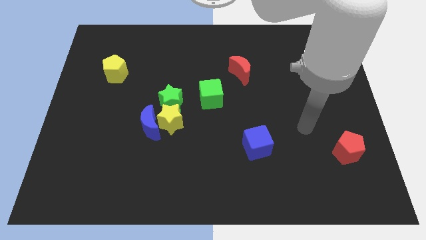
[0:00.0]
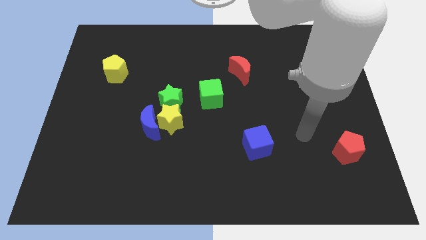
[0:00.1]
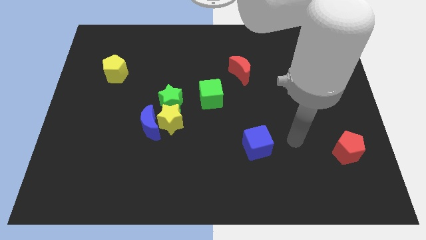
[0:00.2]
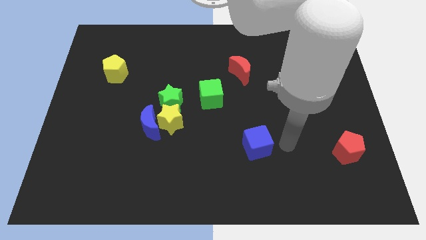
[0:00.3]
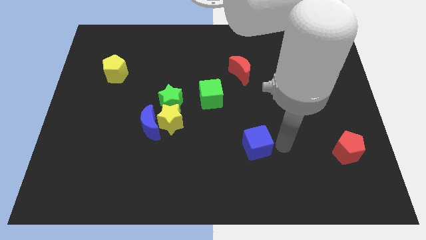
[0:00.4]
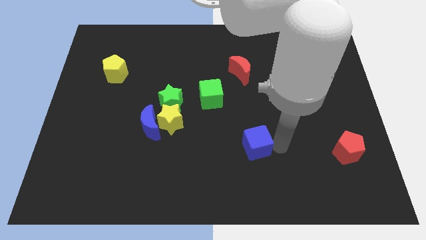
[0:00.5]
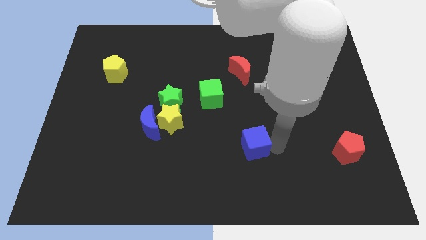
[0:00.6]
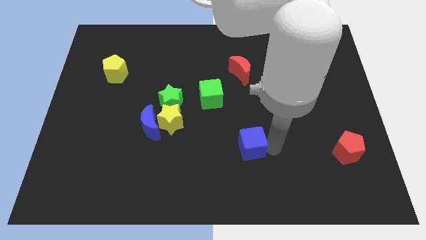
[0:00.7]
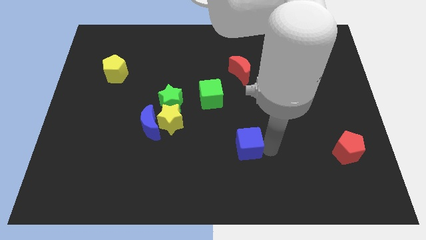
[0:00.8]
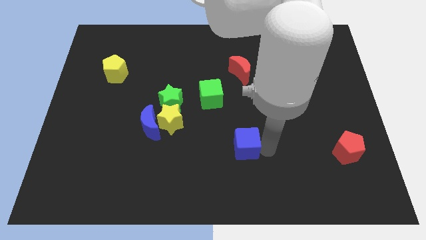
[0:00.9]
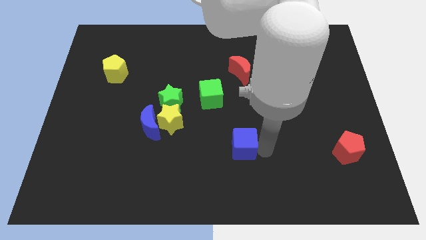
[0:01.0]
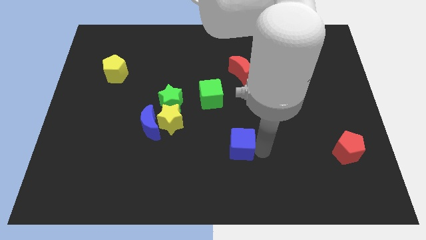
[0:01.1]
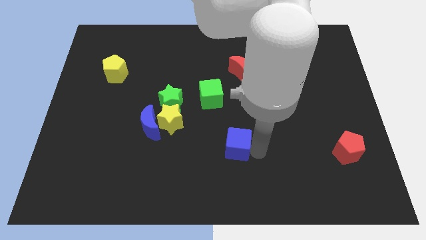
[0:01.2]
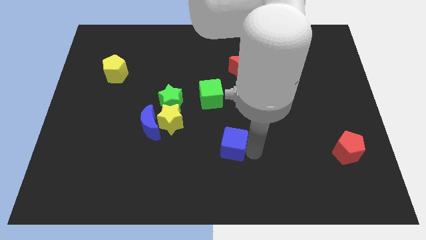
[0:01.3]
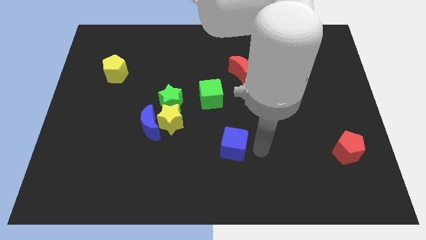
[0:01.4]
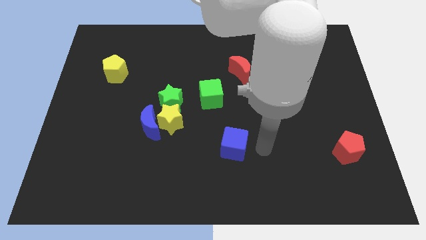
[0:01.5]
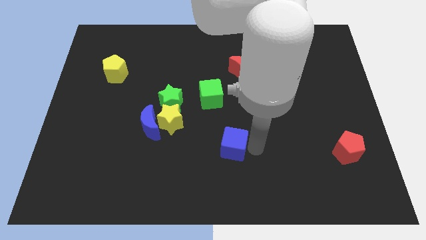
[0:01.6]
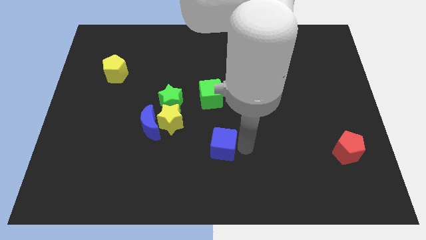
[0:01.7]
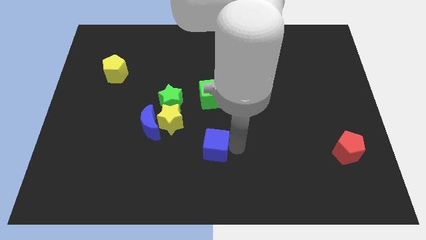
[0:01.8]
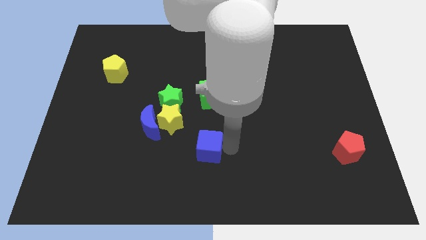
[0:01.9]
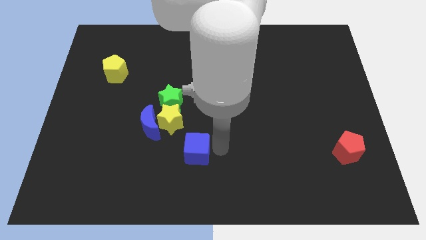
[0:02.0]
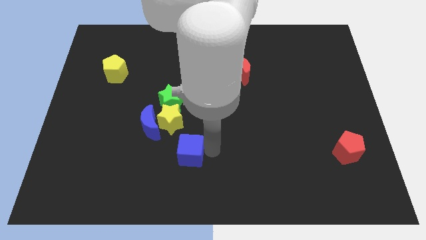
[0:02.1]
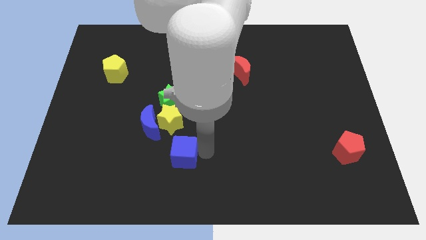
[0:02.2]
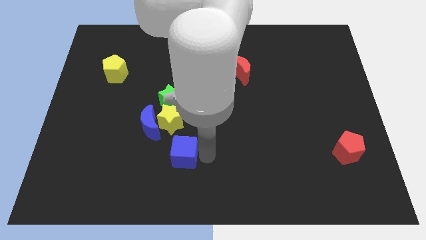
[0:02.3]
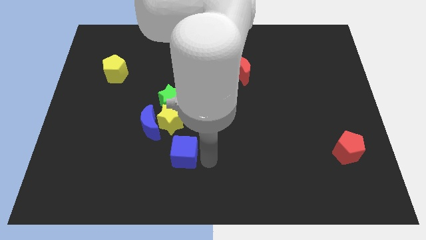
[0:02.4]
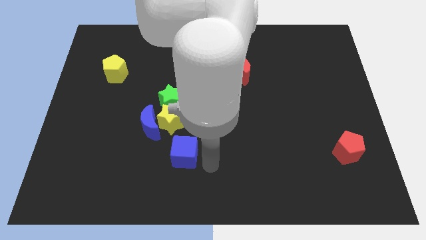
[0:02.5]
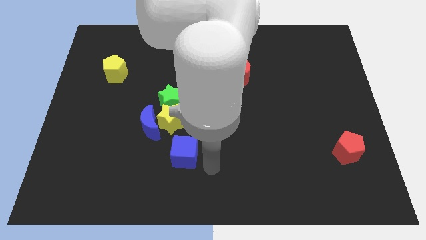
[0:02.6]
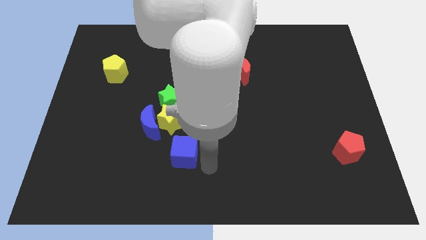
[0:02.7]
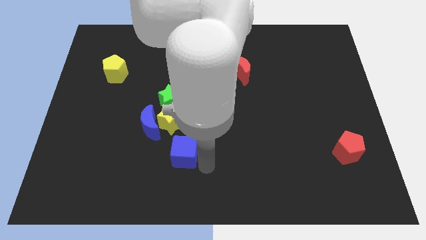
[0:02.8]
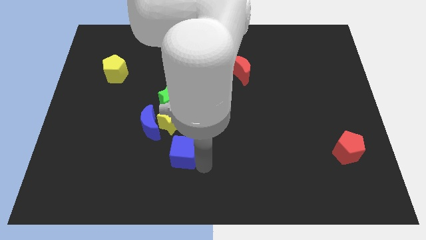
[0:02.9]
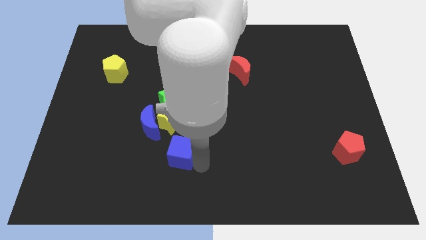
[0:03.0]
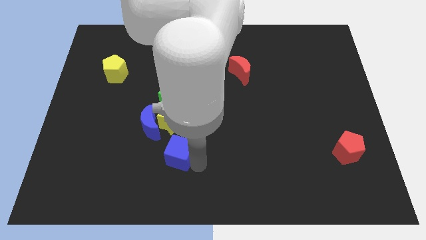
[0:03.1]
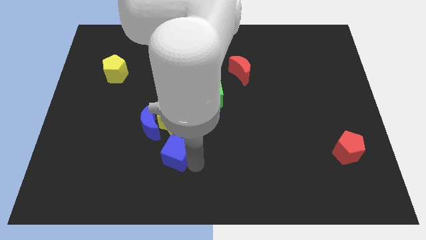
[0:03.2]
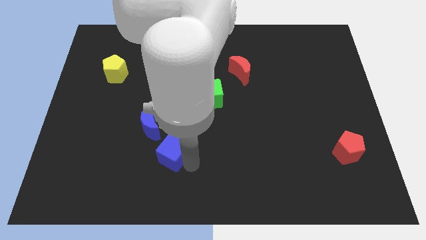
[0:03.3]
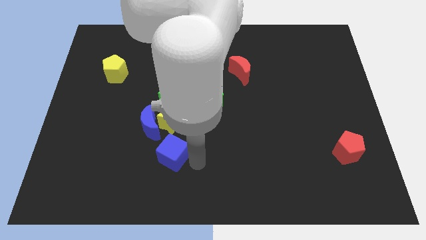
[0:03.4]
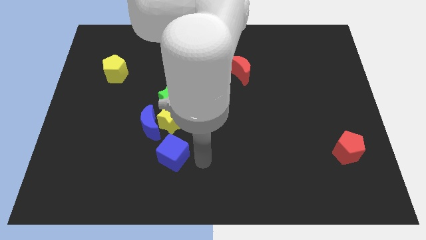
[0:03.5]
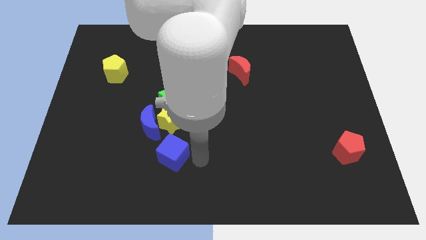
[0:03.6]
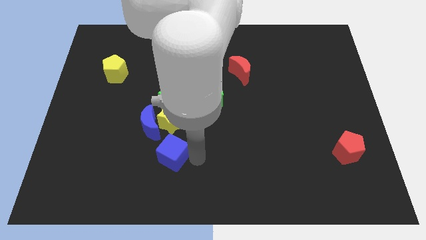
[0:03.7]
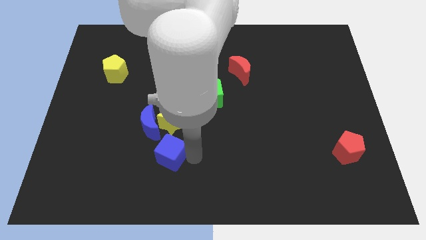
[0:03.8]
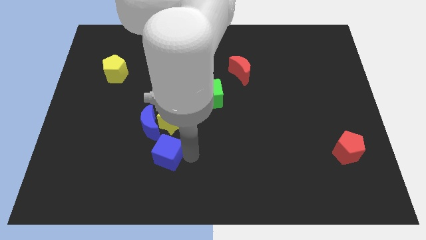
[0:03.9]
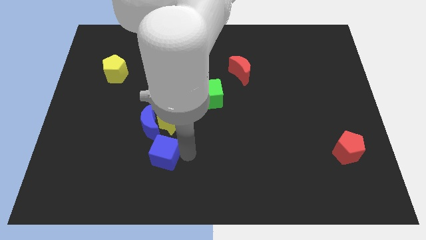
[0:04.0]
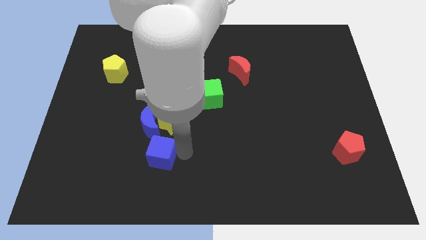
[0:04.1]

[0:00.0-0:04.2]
slide the blue cube to the left

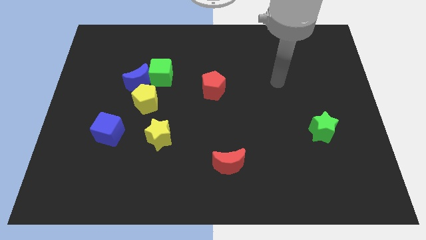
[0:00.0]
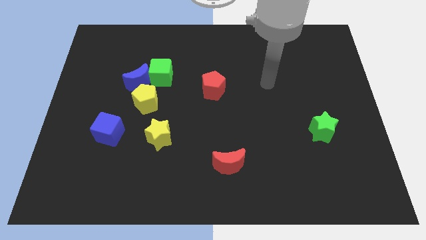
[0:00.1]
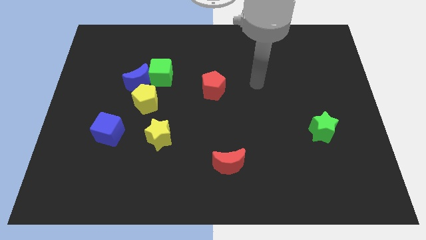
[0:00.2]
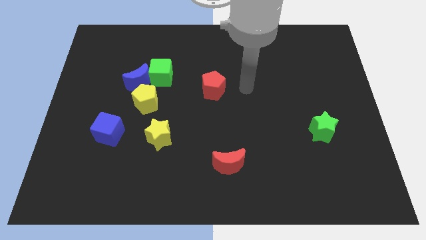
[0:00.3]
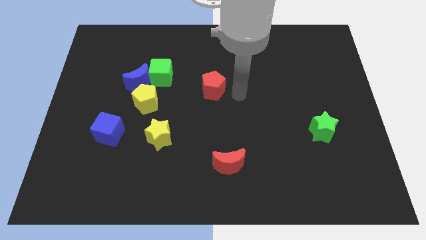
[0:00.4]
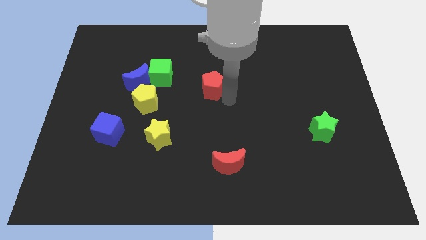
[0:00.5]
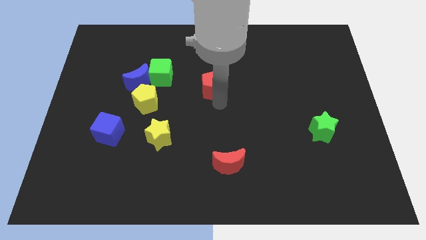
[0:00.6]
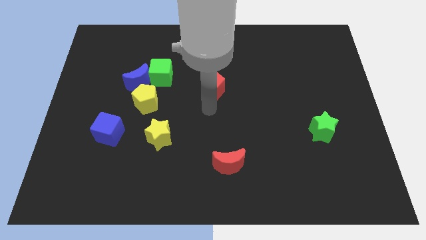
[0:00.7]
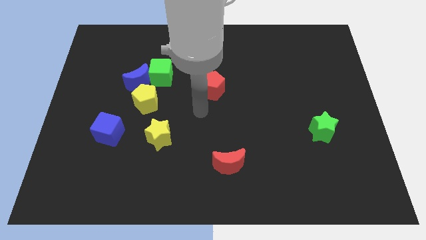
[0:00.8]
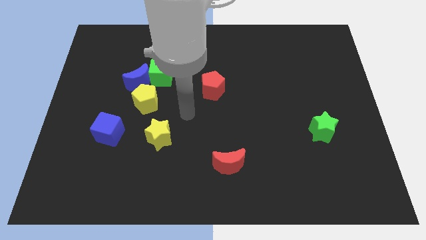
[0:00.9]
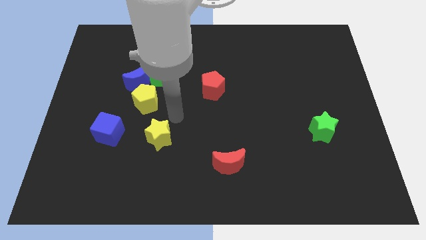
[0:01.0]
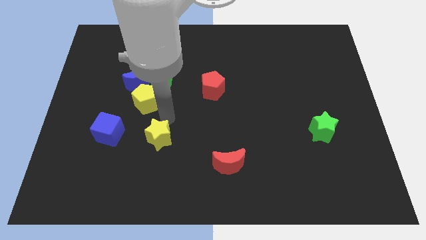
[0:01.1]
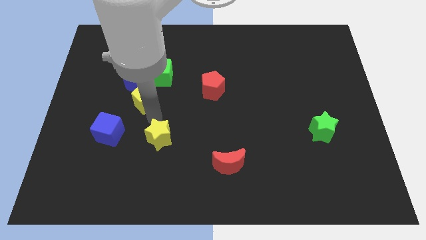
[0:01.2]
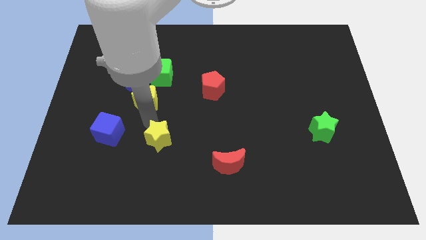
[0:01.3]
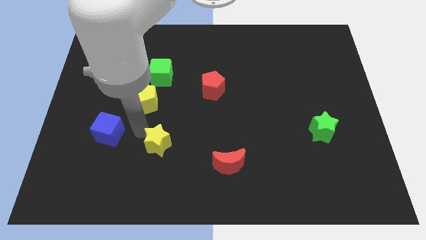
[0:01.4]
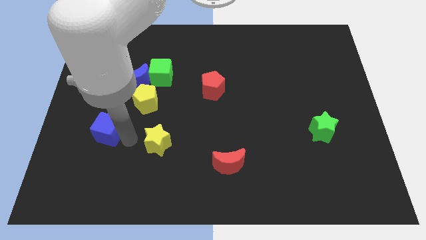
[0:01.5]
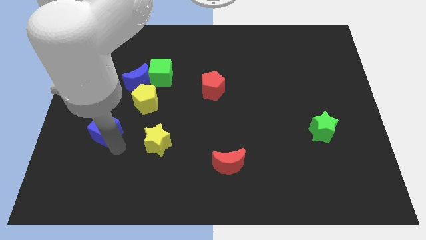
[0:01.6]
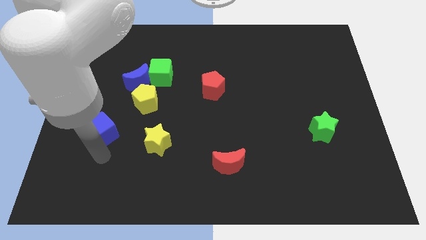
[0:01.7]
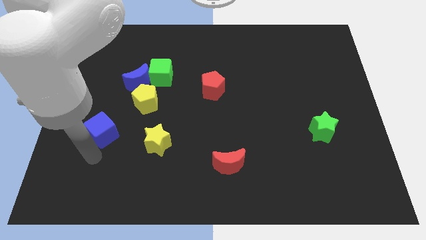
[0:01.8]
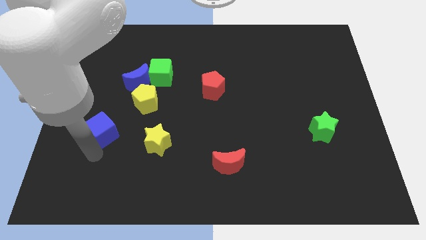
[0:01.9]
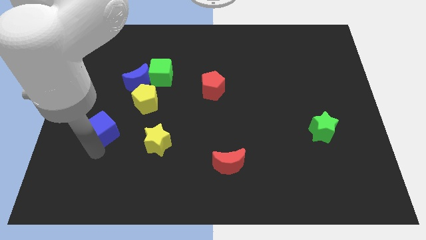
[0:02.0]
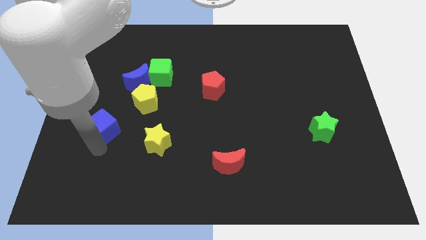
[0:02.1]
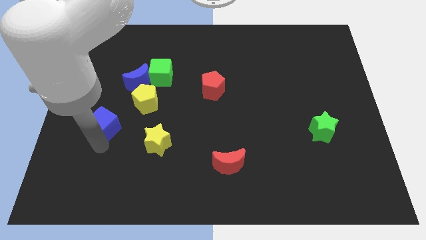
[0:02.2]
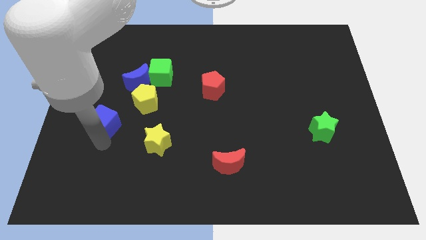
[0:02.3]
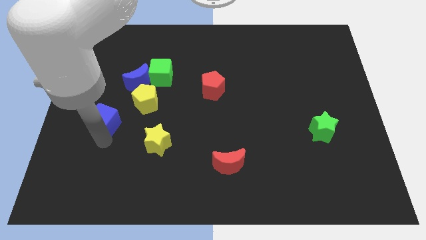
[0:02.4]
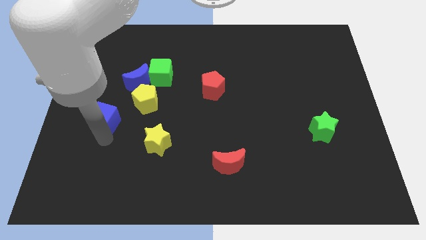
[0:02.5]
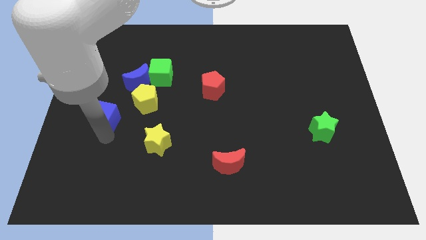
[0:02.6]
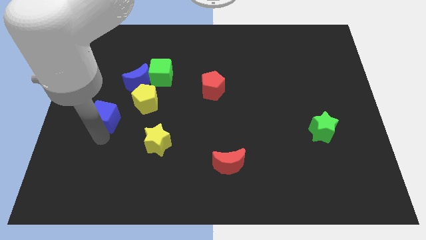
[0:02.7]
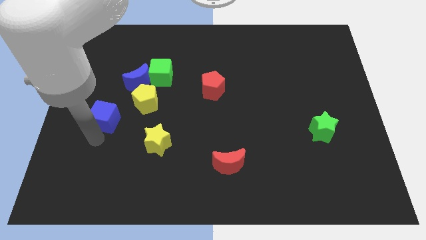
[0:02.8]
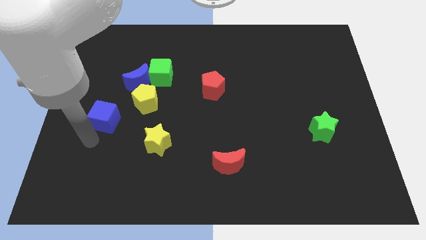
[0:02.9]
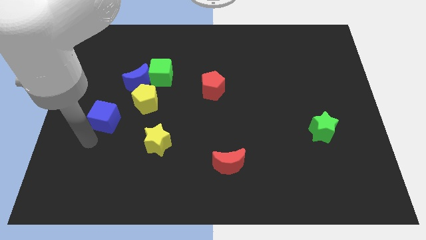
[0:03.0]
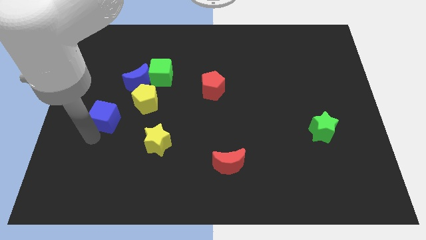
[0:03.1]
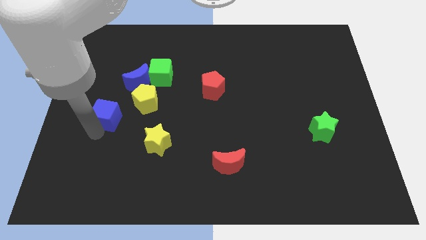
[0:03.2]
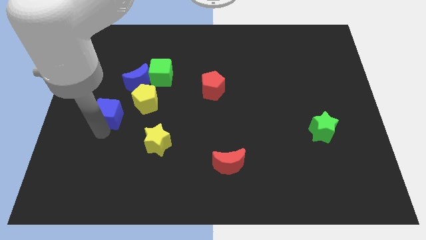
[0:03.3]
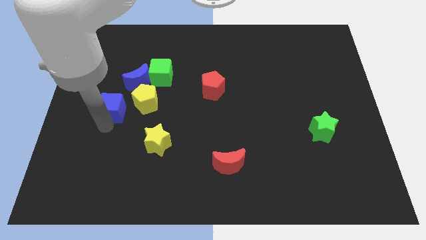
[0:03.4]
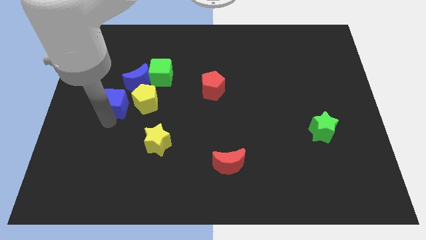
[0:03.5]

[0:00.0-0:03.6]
move the blue cube slightly up

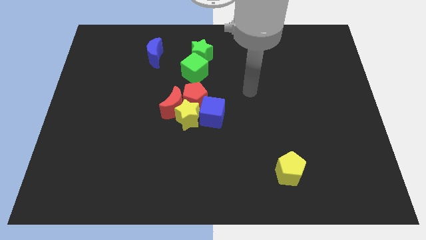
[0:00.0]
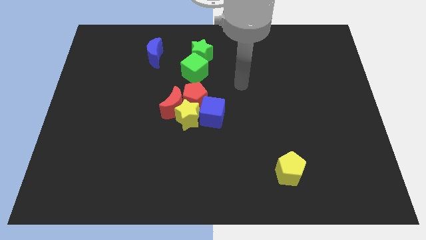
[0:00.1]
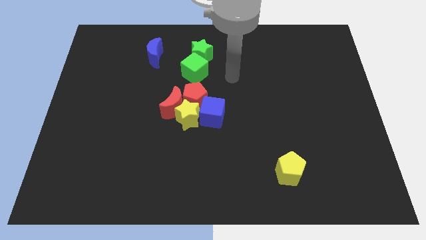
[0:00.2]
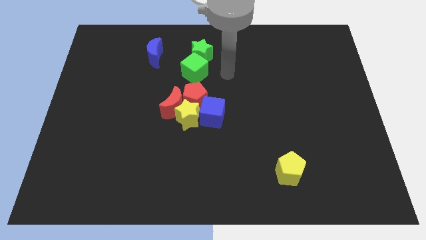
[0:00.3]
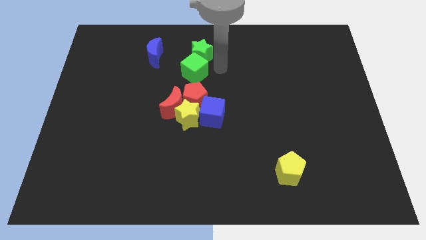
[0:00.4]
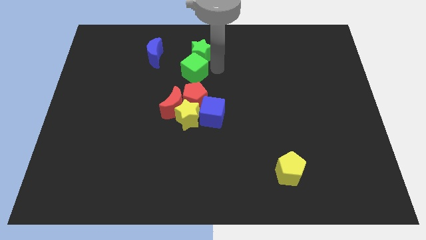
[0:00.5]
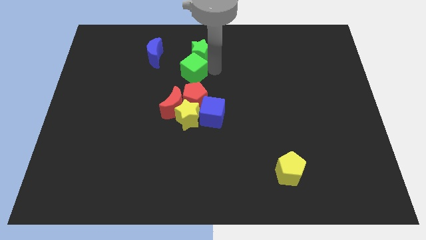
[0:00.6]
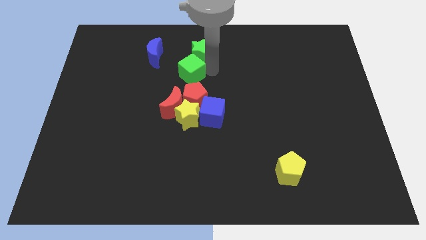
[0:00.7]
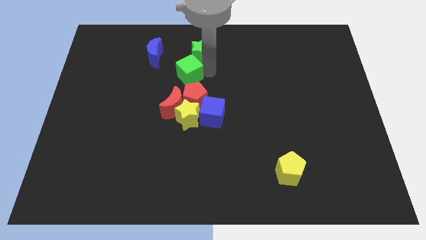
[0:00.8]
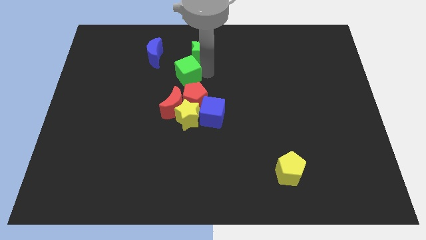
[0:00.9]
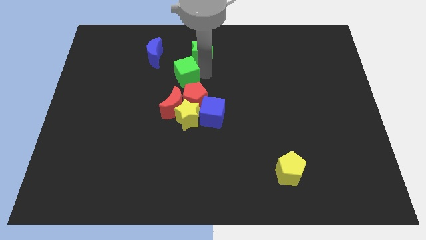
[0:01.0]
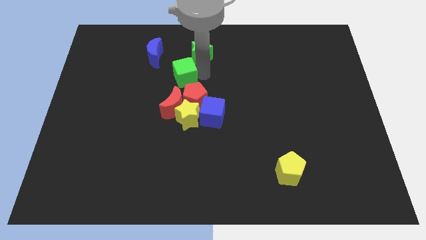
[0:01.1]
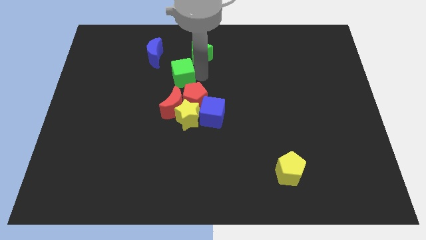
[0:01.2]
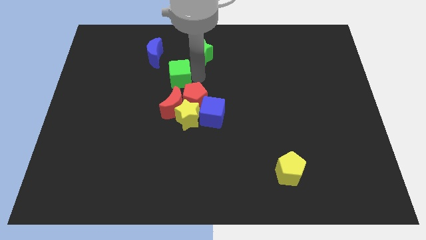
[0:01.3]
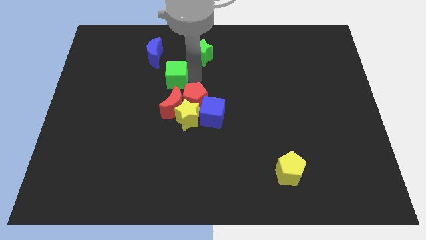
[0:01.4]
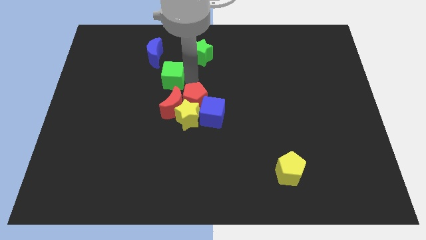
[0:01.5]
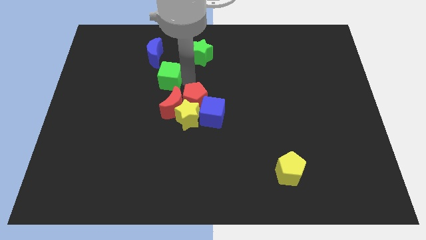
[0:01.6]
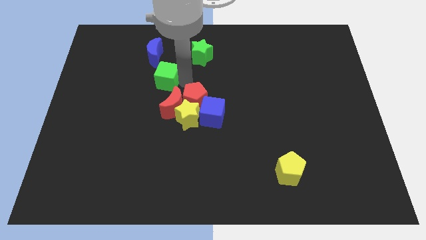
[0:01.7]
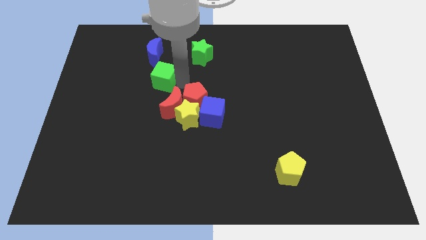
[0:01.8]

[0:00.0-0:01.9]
push the green cube a bit left
